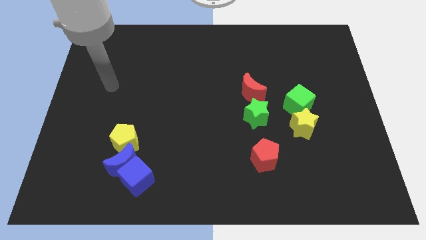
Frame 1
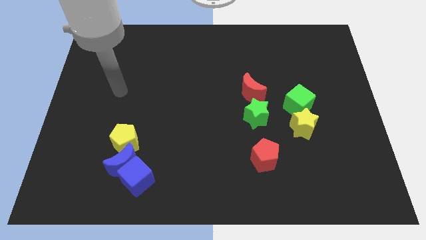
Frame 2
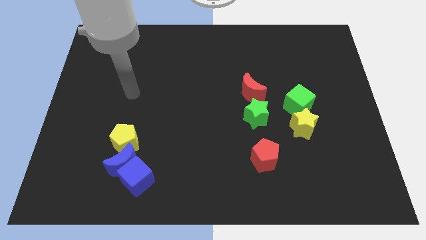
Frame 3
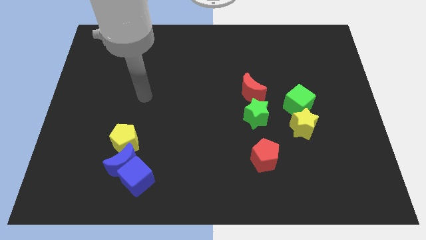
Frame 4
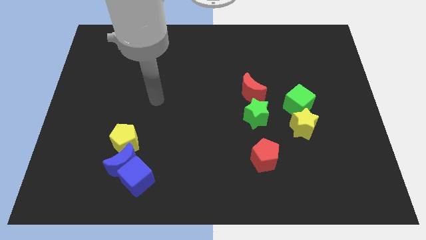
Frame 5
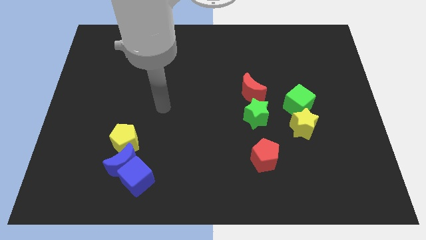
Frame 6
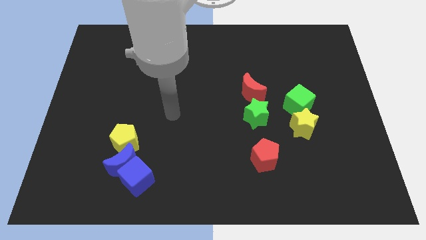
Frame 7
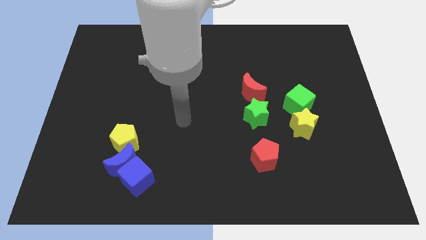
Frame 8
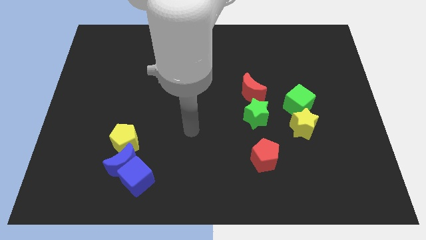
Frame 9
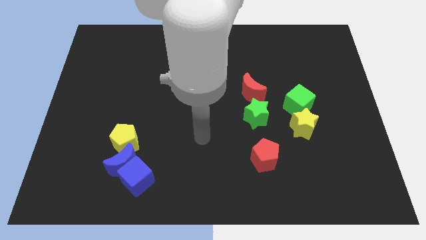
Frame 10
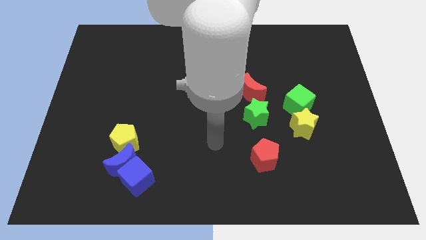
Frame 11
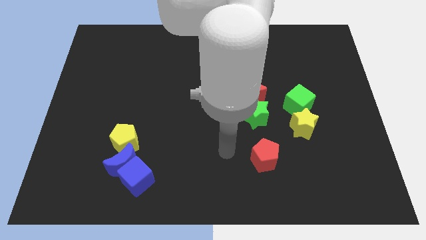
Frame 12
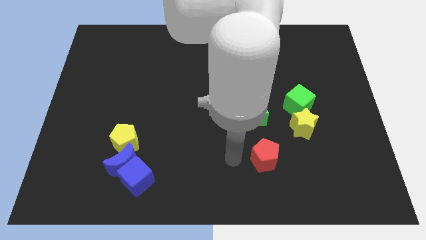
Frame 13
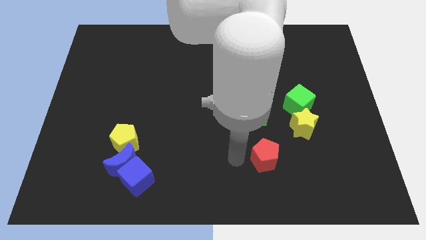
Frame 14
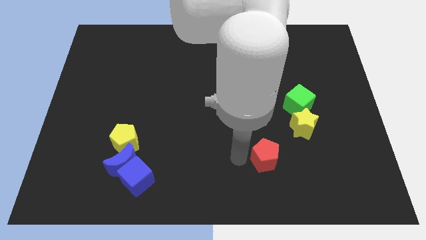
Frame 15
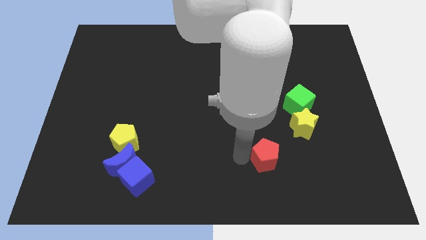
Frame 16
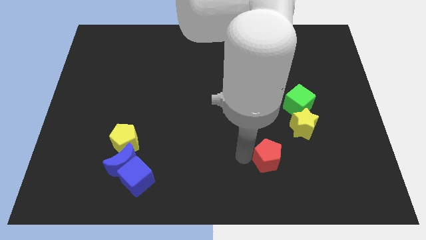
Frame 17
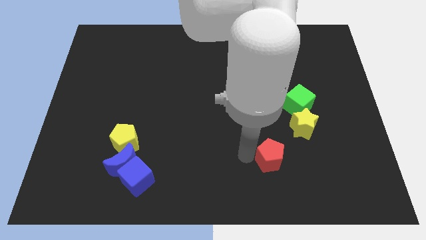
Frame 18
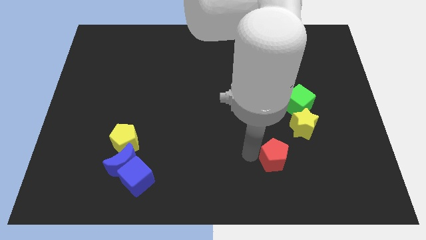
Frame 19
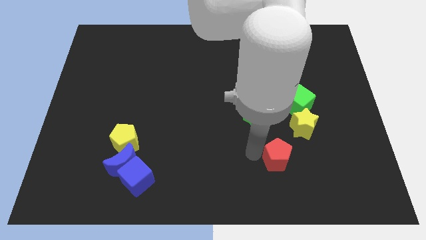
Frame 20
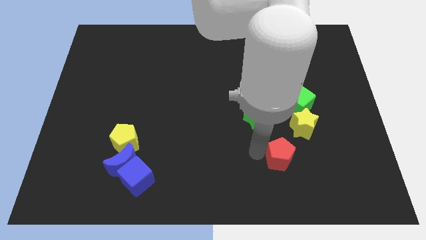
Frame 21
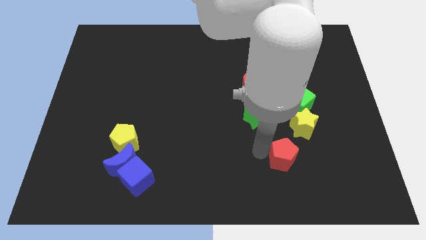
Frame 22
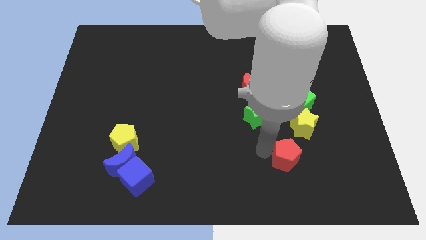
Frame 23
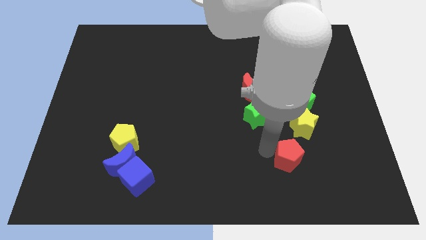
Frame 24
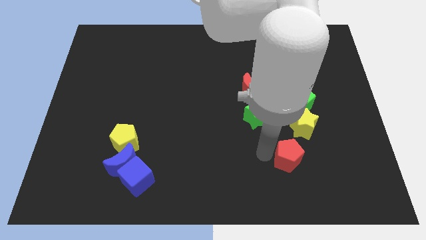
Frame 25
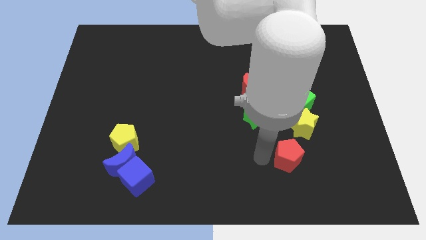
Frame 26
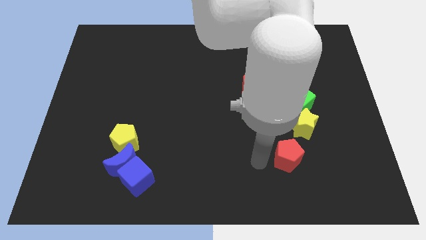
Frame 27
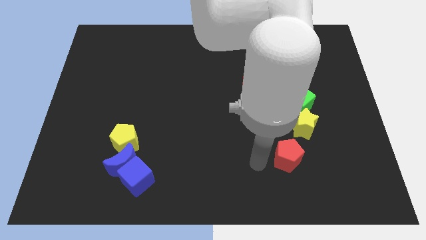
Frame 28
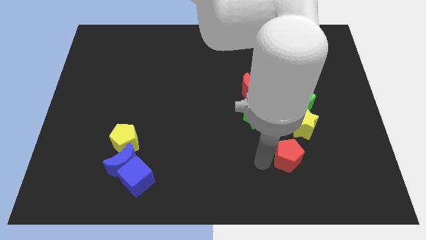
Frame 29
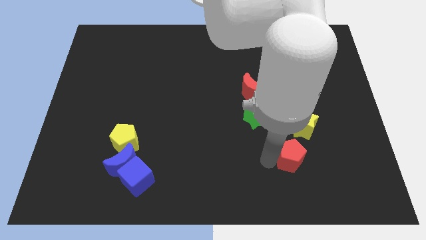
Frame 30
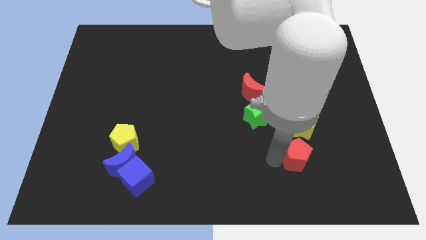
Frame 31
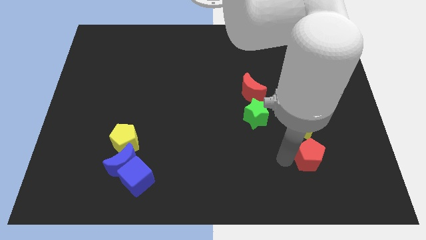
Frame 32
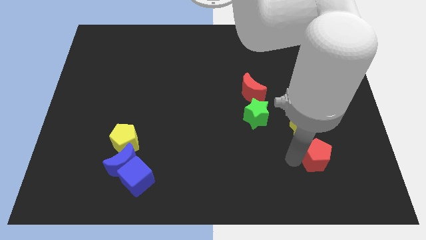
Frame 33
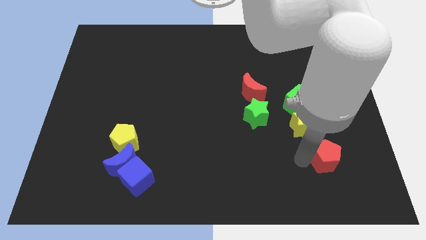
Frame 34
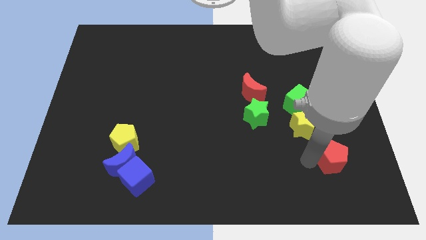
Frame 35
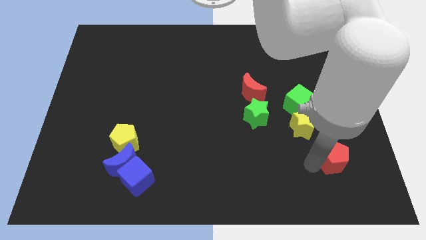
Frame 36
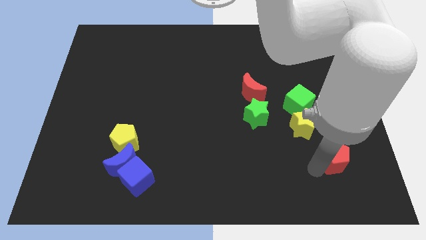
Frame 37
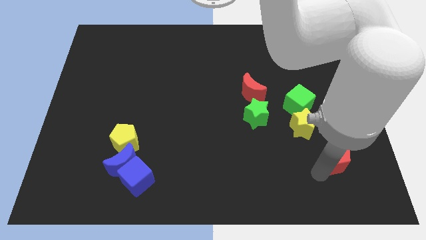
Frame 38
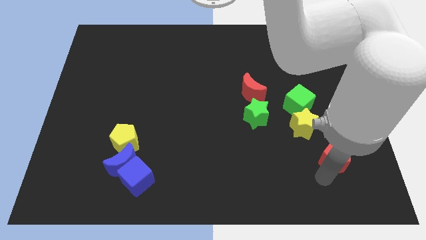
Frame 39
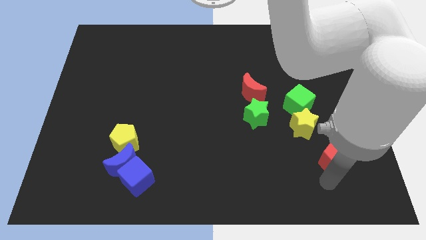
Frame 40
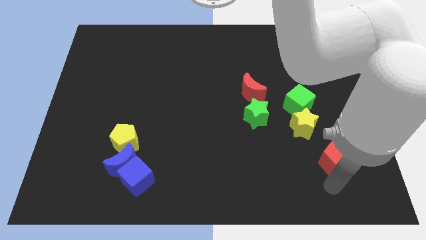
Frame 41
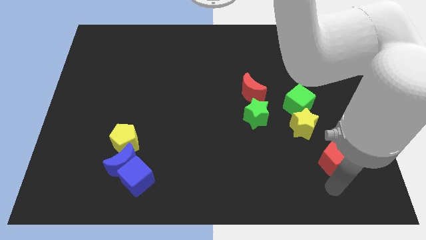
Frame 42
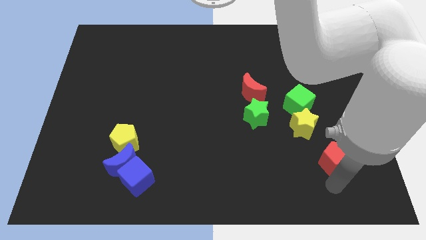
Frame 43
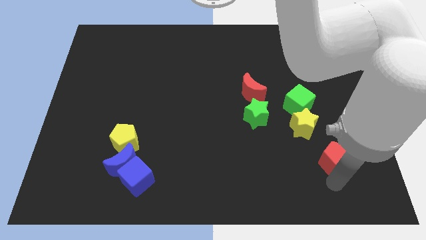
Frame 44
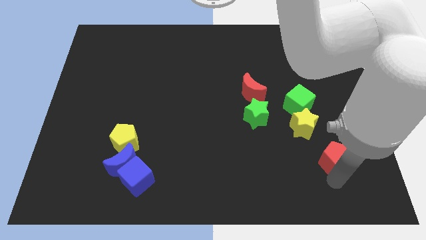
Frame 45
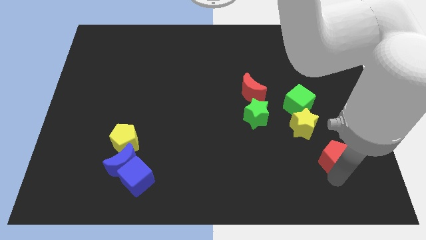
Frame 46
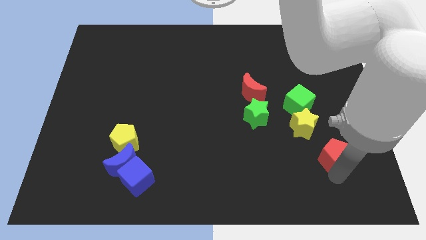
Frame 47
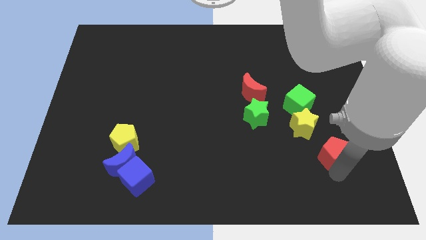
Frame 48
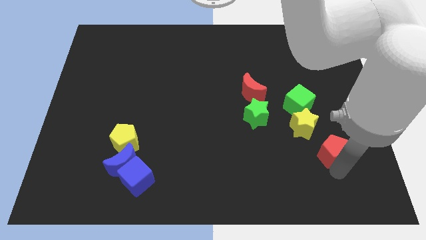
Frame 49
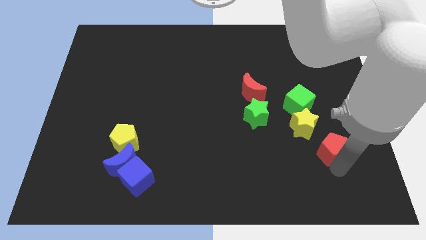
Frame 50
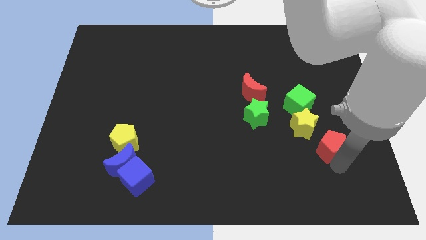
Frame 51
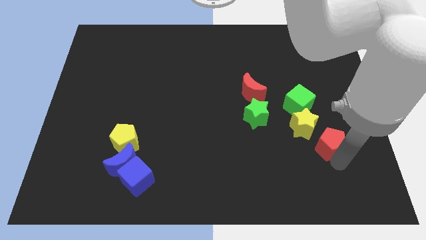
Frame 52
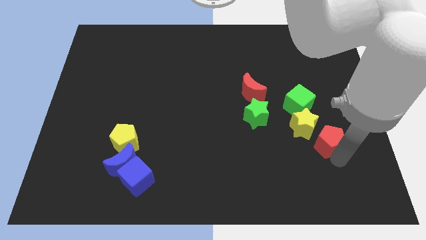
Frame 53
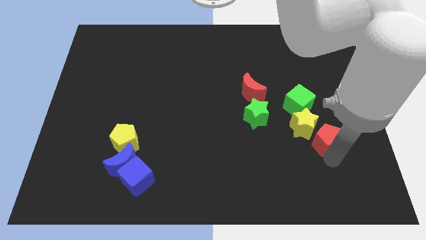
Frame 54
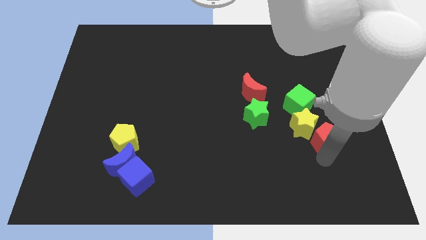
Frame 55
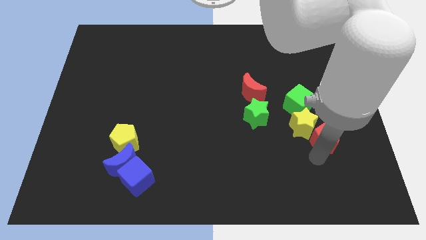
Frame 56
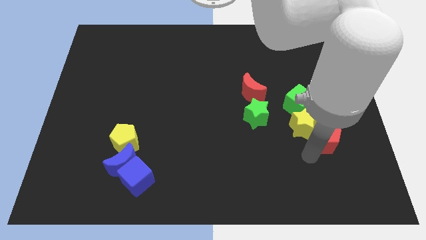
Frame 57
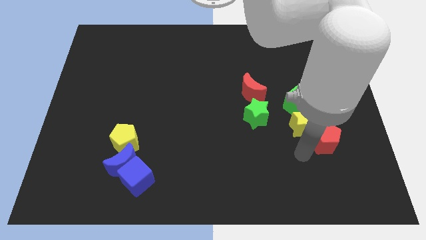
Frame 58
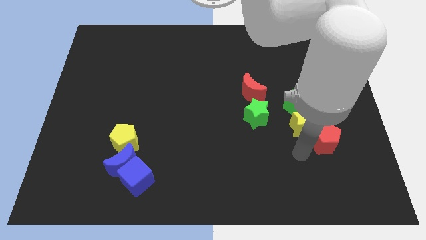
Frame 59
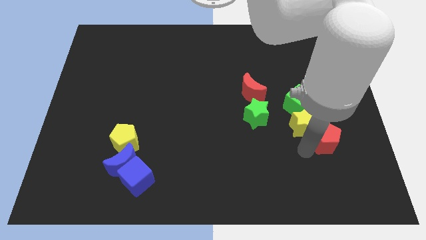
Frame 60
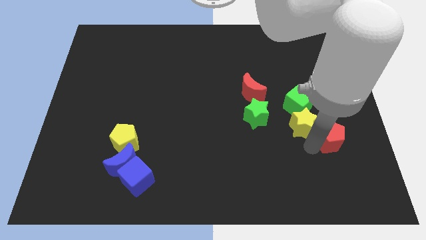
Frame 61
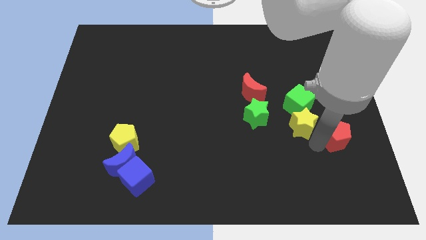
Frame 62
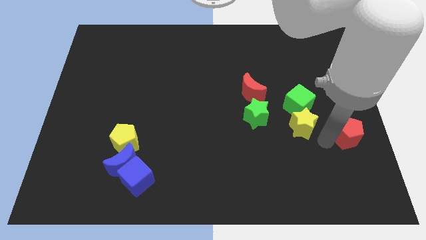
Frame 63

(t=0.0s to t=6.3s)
slide the red pentagon to the right side
